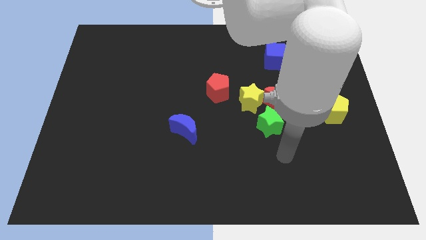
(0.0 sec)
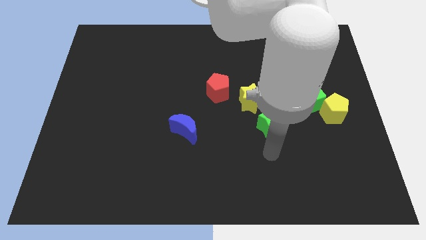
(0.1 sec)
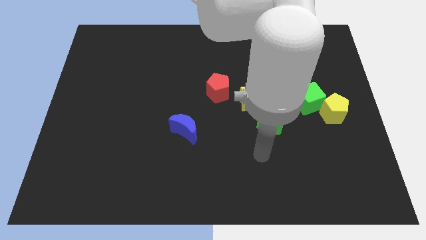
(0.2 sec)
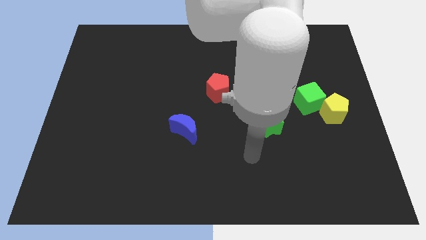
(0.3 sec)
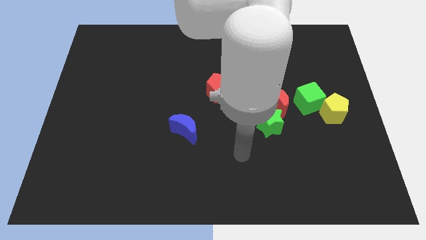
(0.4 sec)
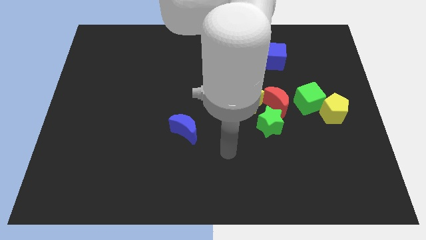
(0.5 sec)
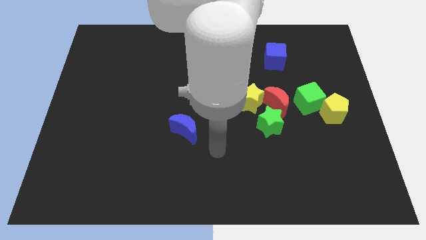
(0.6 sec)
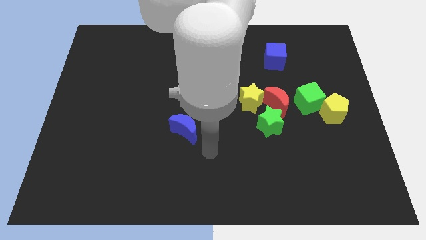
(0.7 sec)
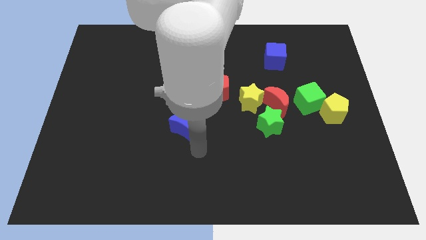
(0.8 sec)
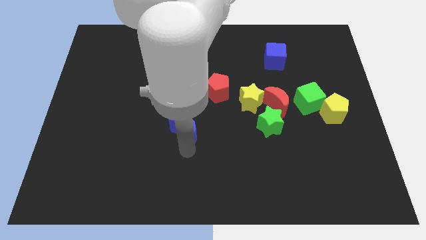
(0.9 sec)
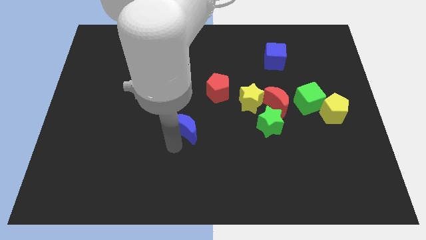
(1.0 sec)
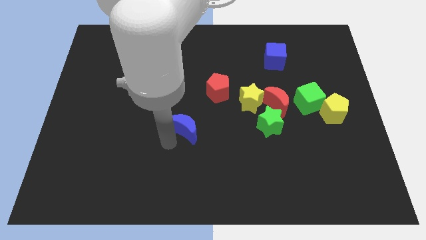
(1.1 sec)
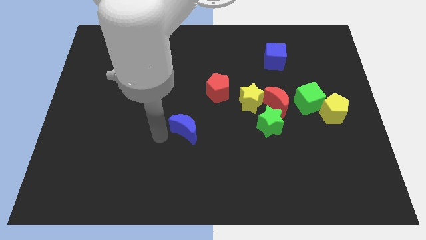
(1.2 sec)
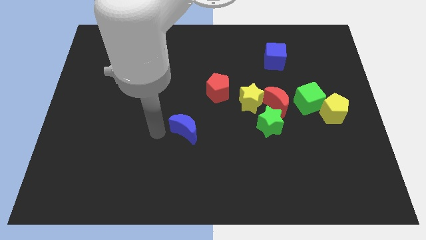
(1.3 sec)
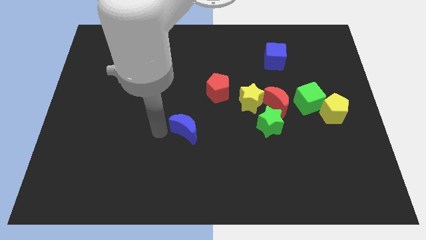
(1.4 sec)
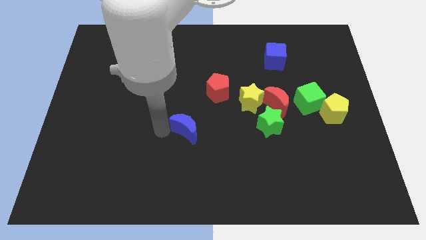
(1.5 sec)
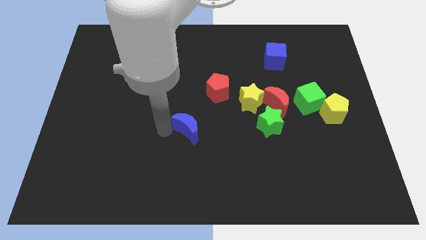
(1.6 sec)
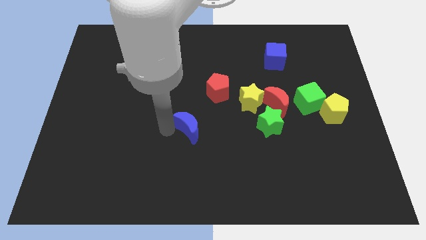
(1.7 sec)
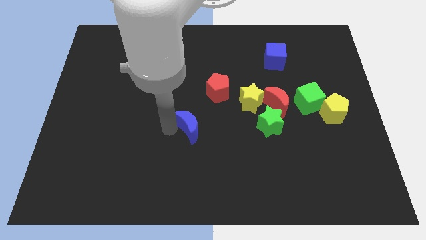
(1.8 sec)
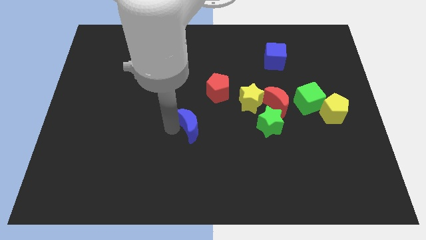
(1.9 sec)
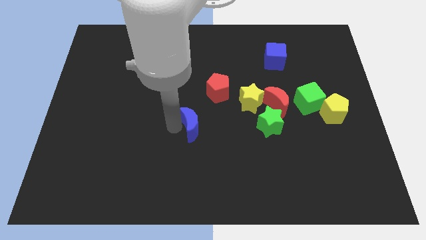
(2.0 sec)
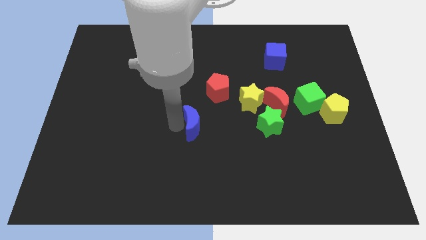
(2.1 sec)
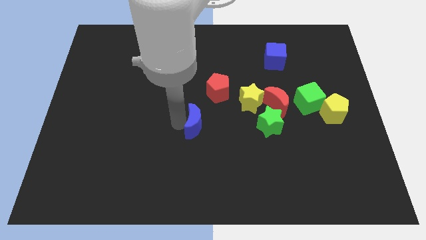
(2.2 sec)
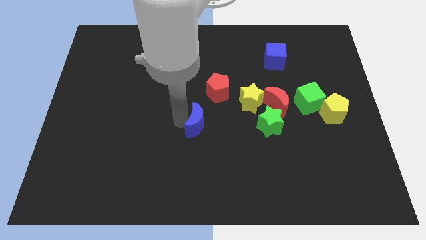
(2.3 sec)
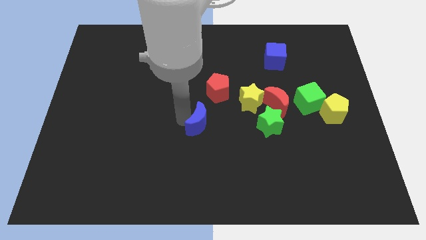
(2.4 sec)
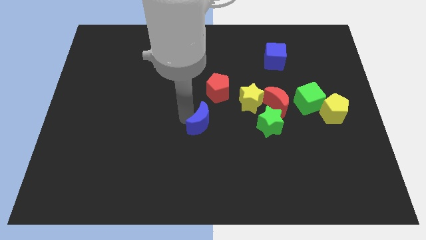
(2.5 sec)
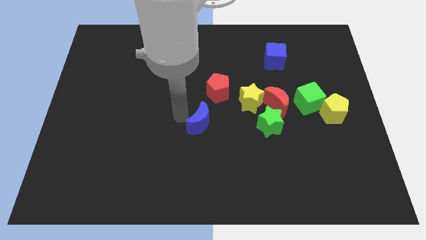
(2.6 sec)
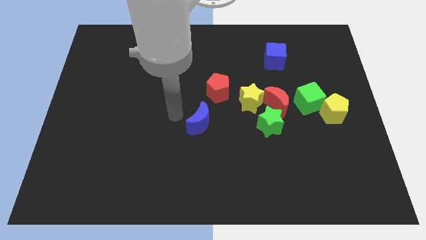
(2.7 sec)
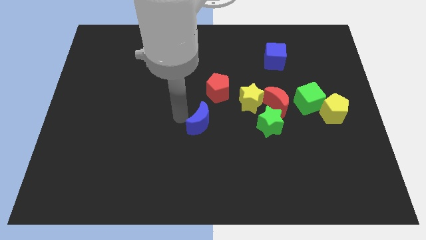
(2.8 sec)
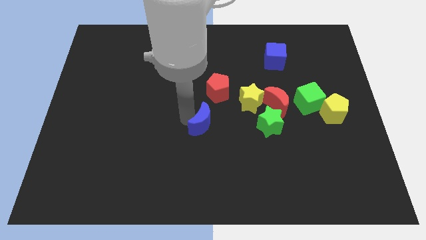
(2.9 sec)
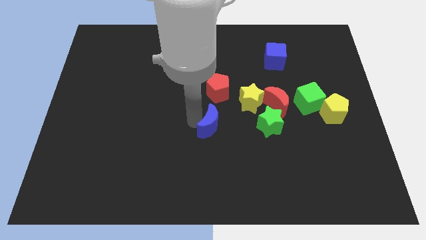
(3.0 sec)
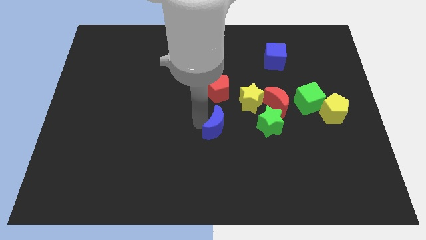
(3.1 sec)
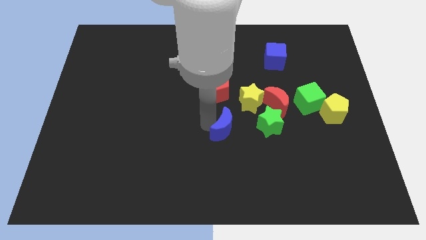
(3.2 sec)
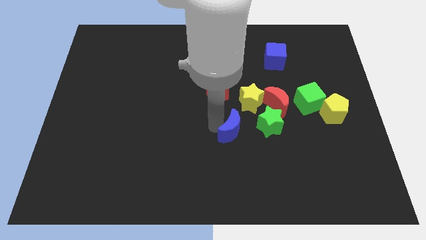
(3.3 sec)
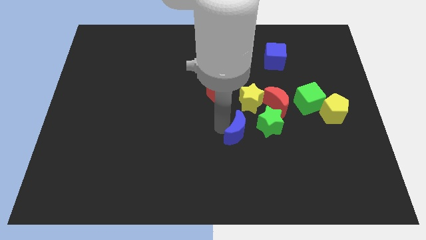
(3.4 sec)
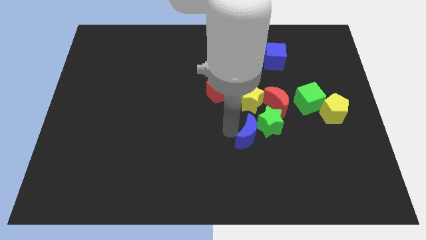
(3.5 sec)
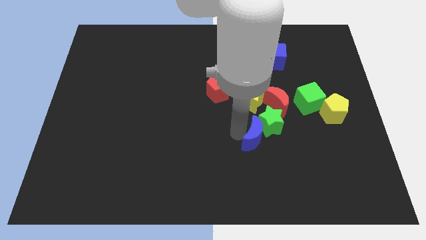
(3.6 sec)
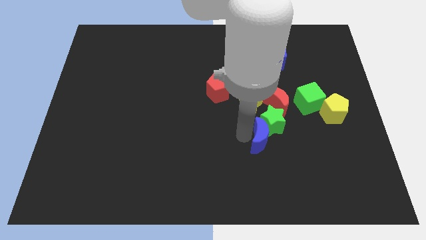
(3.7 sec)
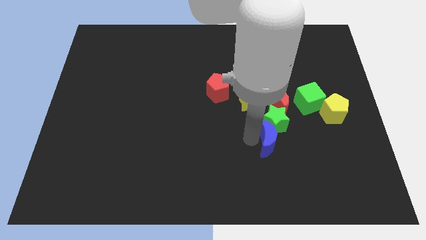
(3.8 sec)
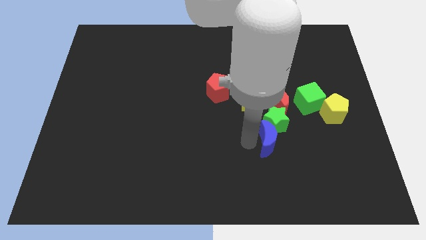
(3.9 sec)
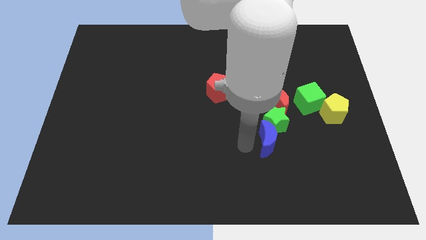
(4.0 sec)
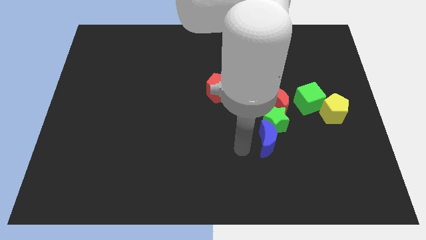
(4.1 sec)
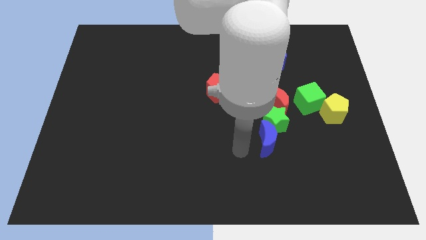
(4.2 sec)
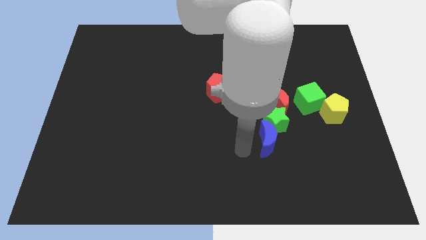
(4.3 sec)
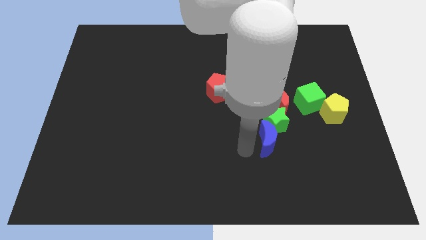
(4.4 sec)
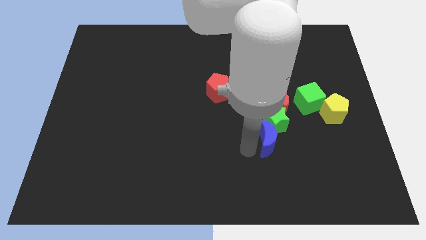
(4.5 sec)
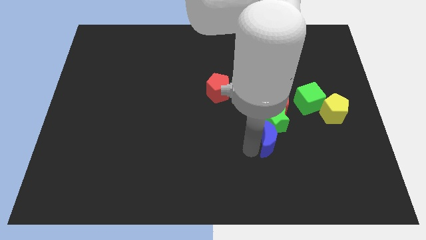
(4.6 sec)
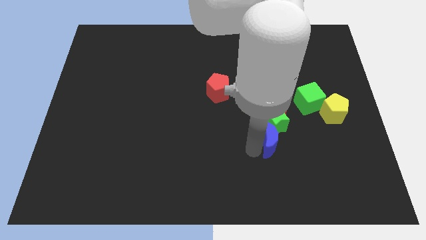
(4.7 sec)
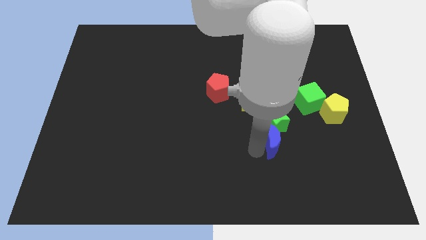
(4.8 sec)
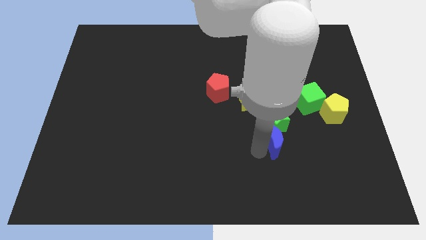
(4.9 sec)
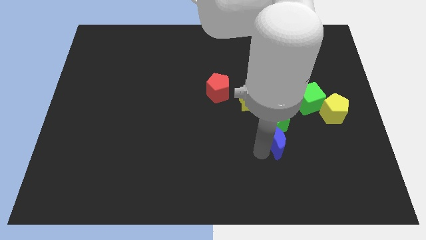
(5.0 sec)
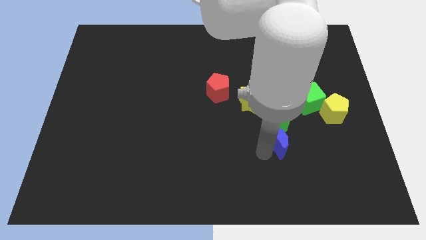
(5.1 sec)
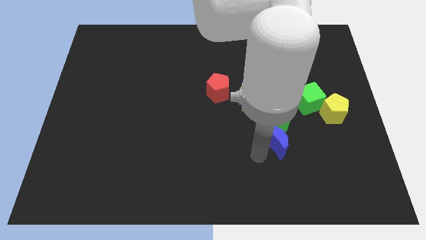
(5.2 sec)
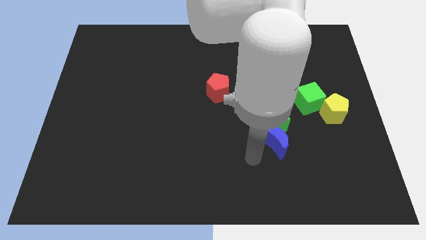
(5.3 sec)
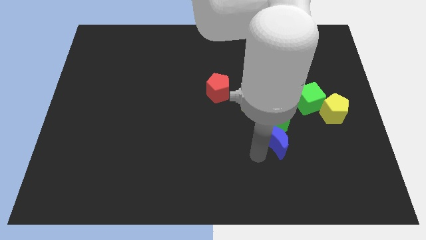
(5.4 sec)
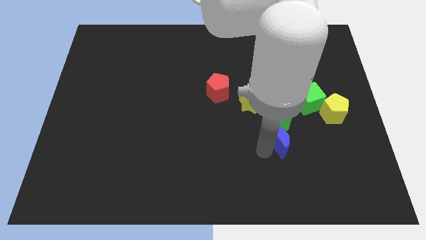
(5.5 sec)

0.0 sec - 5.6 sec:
push the blue moon right

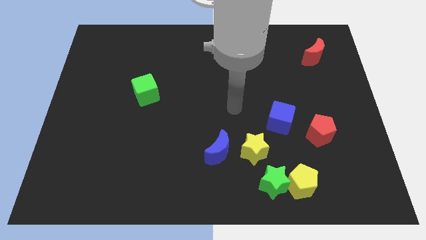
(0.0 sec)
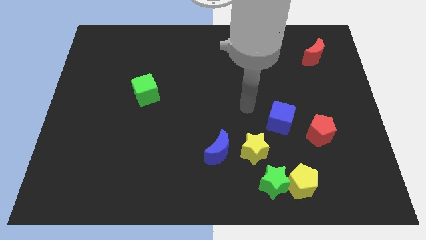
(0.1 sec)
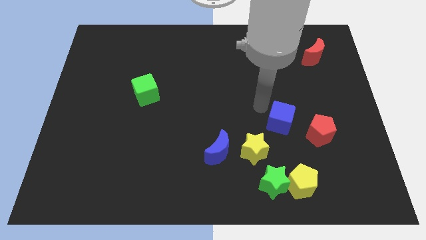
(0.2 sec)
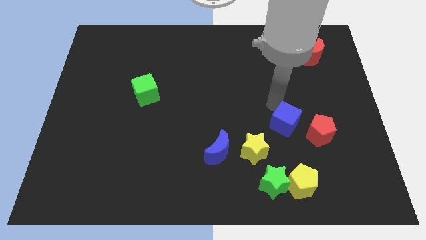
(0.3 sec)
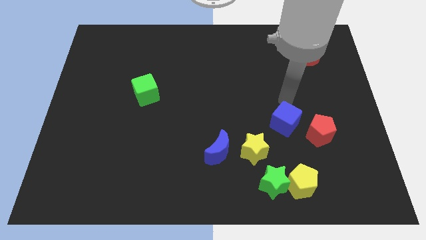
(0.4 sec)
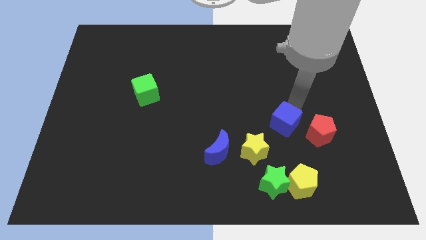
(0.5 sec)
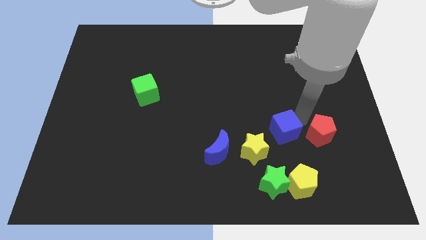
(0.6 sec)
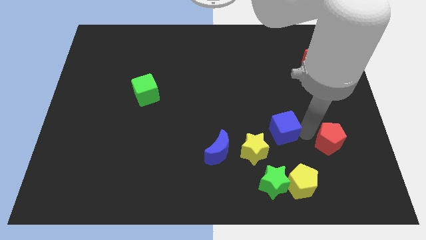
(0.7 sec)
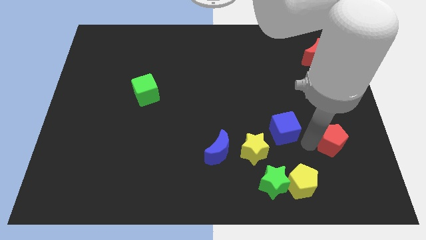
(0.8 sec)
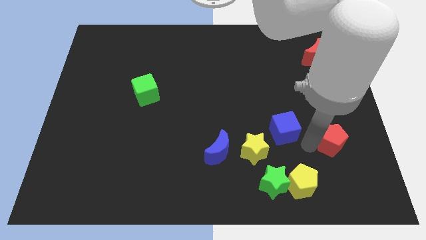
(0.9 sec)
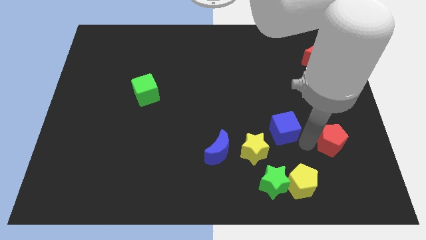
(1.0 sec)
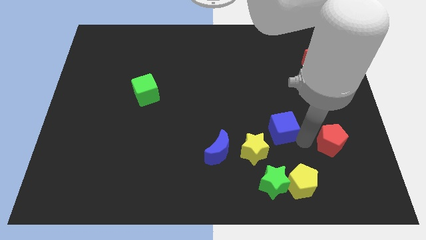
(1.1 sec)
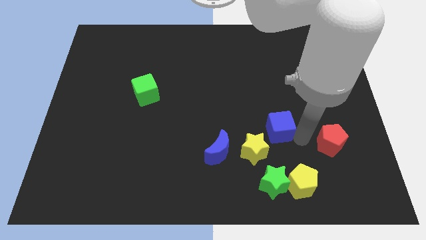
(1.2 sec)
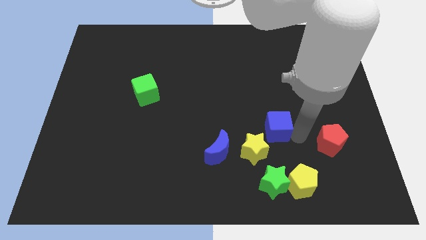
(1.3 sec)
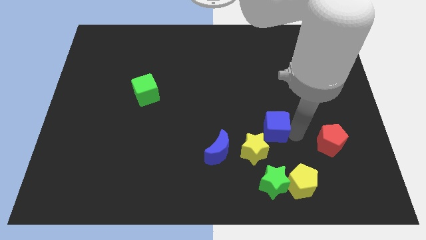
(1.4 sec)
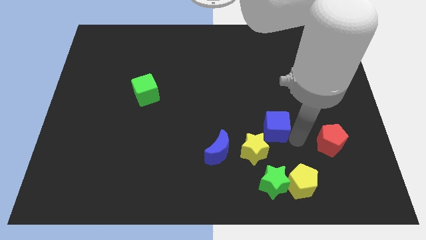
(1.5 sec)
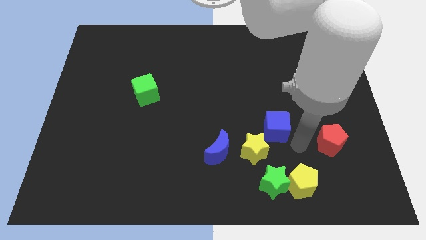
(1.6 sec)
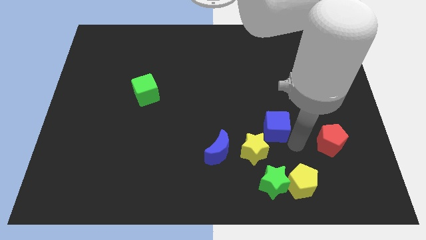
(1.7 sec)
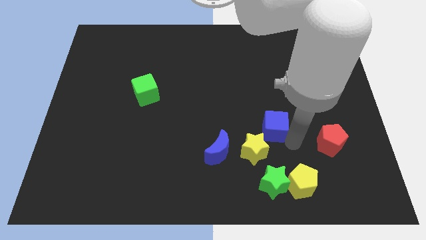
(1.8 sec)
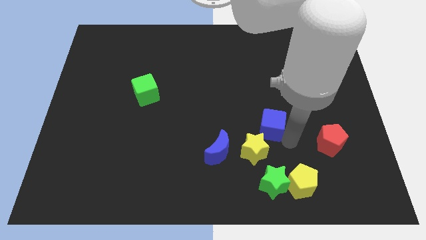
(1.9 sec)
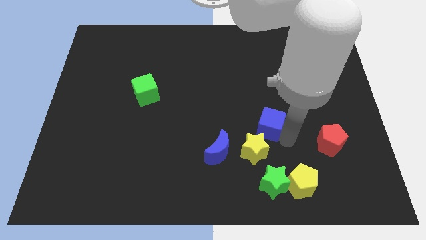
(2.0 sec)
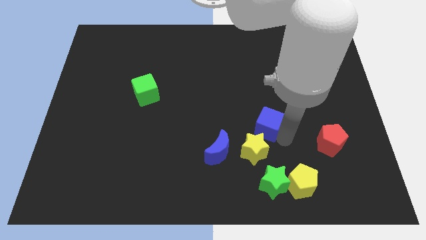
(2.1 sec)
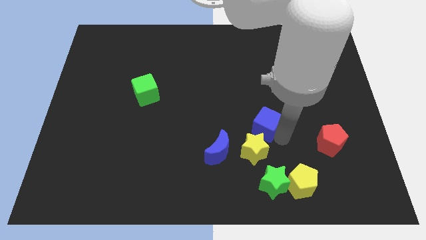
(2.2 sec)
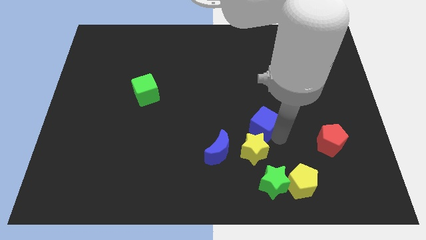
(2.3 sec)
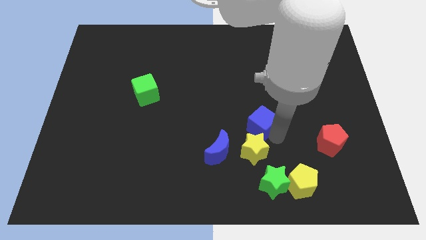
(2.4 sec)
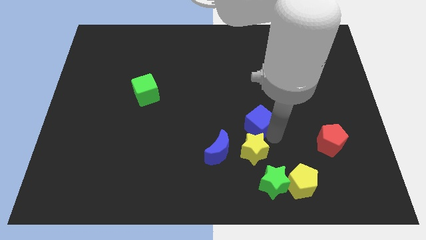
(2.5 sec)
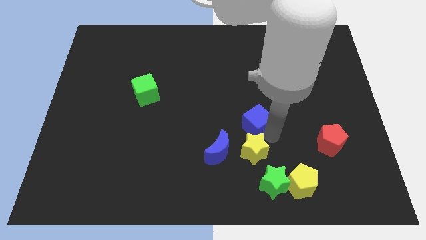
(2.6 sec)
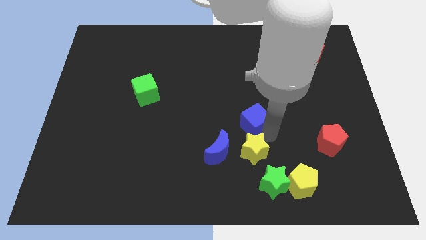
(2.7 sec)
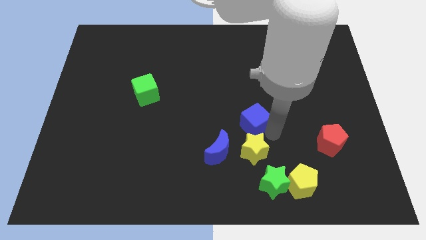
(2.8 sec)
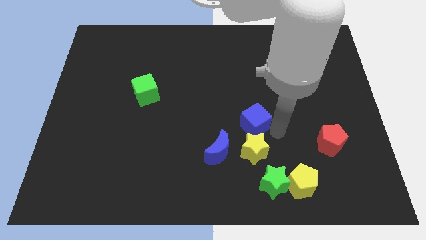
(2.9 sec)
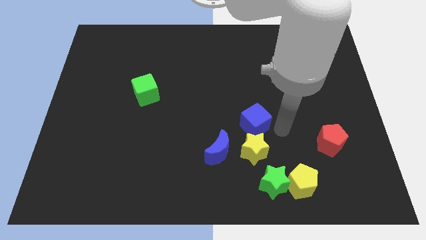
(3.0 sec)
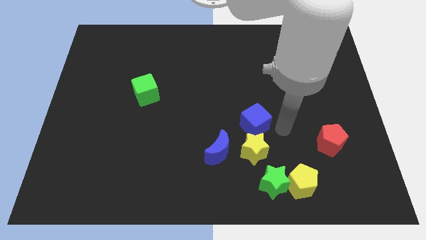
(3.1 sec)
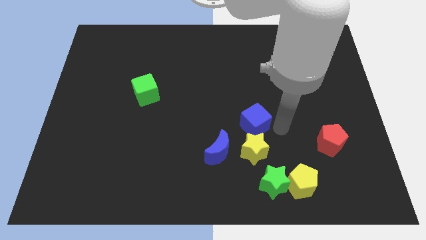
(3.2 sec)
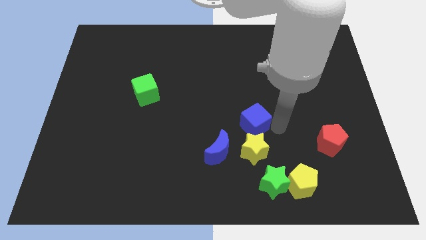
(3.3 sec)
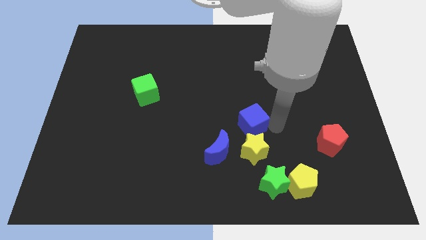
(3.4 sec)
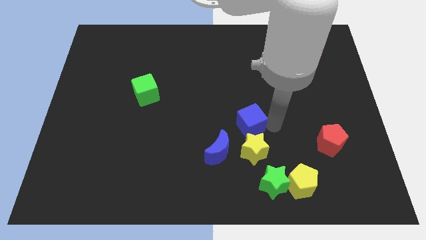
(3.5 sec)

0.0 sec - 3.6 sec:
slightly push the blue cube to the left
